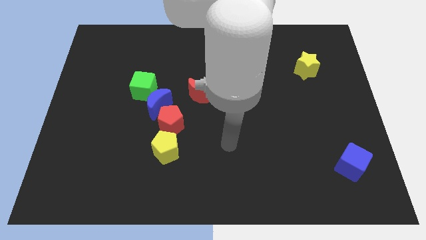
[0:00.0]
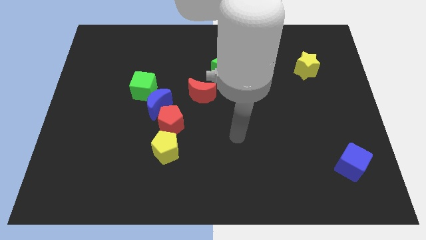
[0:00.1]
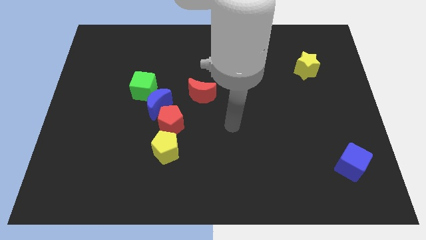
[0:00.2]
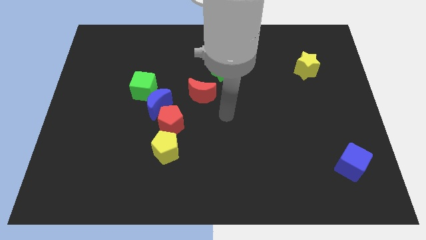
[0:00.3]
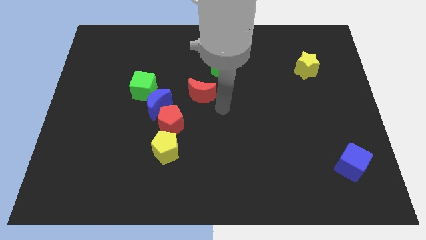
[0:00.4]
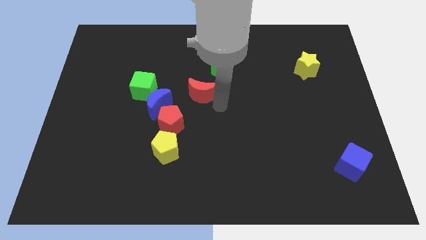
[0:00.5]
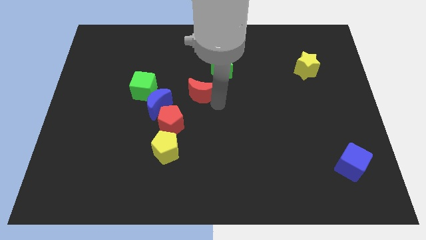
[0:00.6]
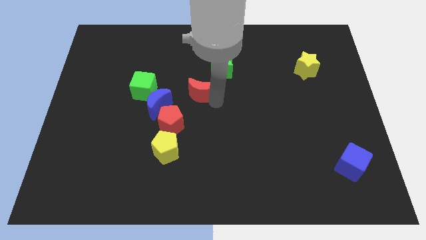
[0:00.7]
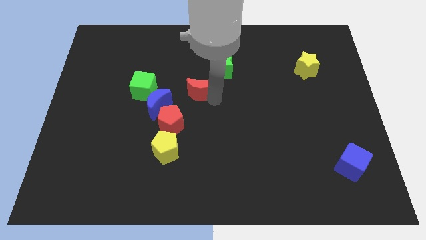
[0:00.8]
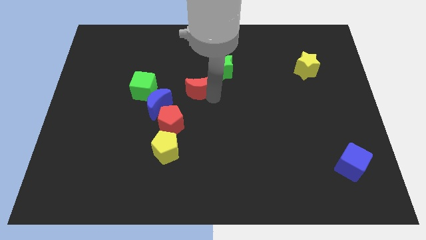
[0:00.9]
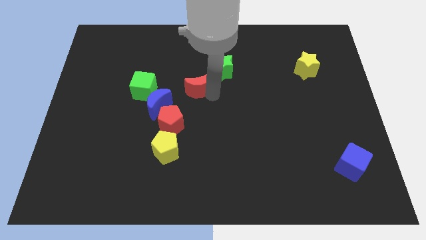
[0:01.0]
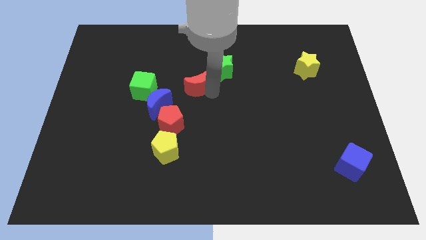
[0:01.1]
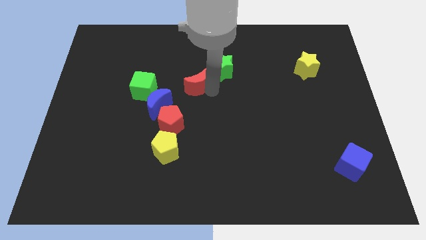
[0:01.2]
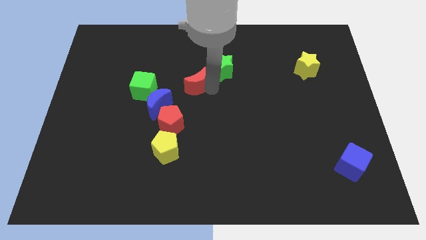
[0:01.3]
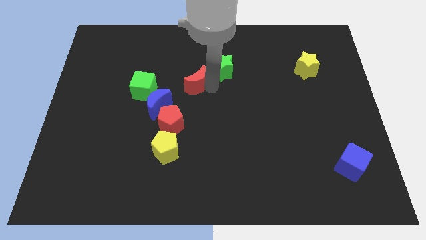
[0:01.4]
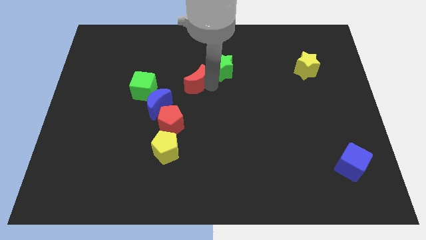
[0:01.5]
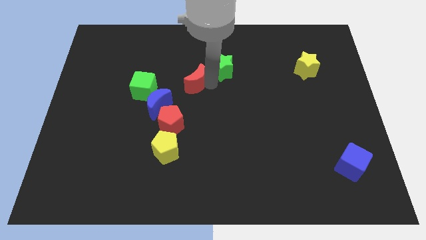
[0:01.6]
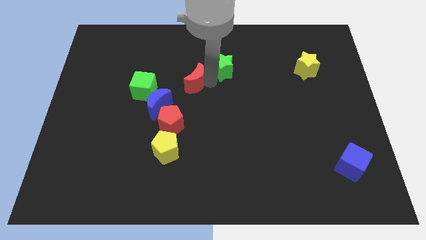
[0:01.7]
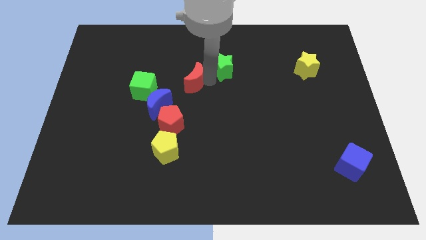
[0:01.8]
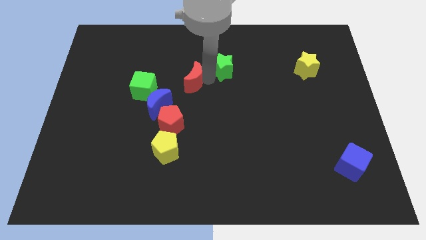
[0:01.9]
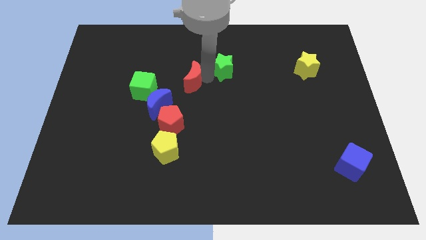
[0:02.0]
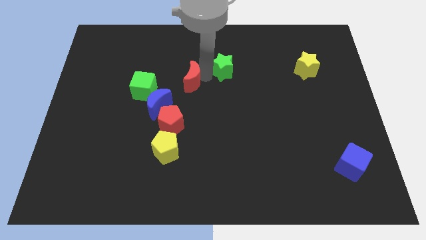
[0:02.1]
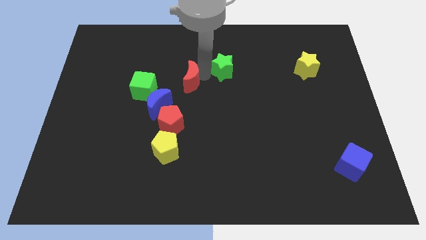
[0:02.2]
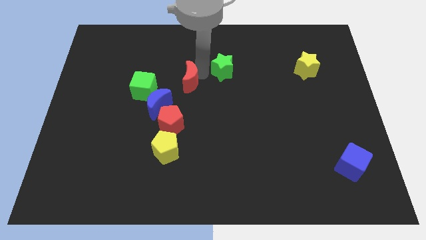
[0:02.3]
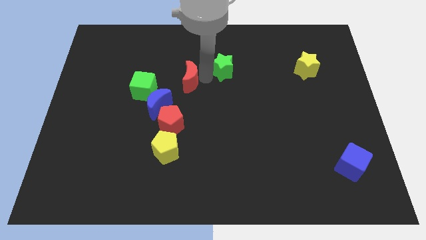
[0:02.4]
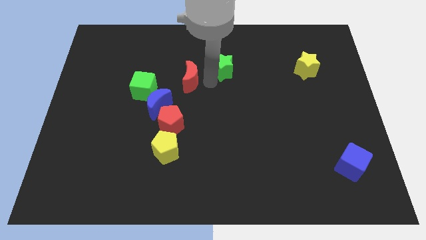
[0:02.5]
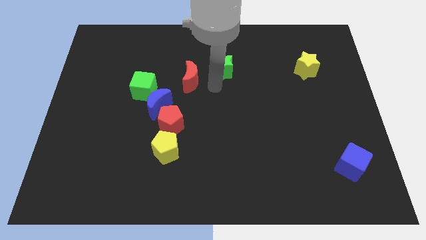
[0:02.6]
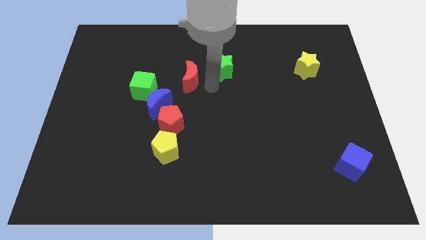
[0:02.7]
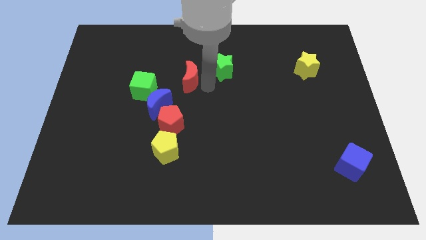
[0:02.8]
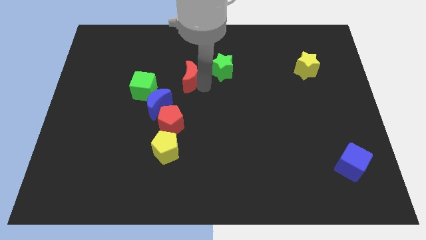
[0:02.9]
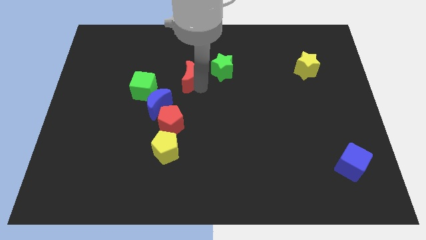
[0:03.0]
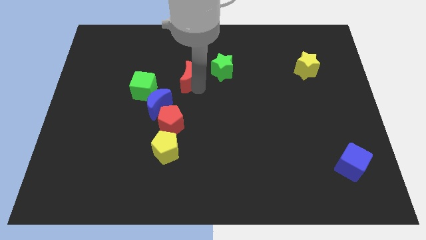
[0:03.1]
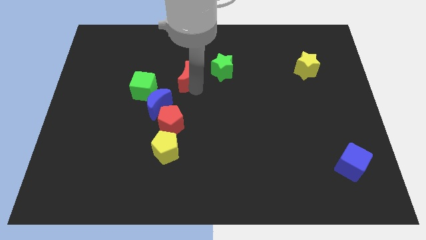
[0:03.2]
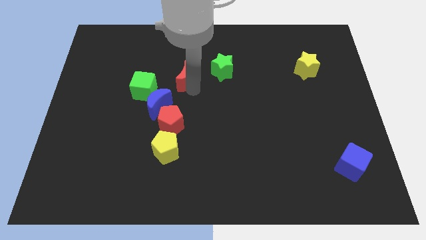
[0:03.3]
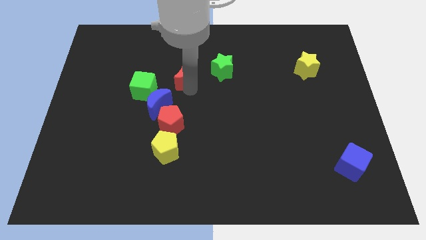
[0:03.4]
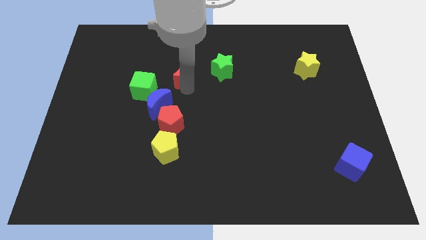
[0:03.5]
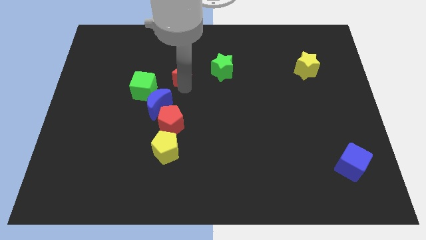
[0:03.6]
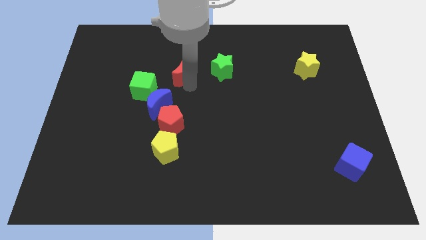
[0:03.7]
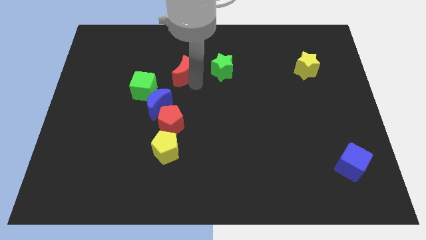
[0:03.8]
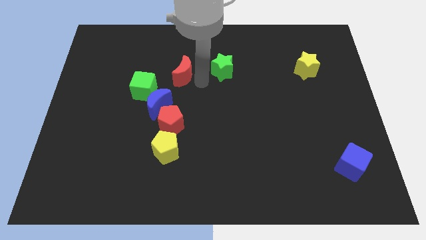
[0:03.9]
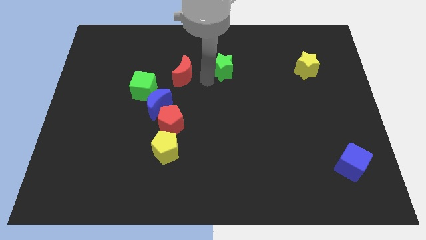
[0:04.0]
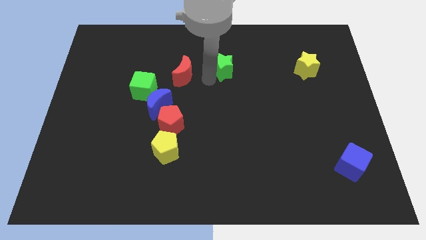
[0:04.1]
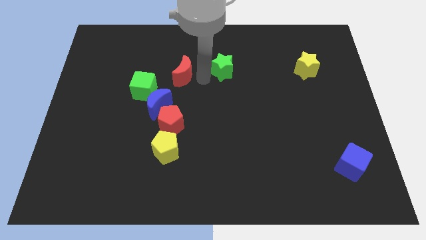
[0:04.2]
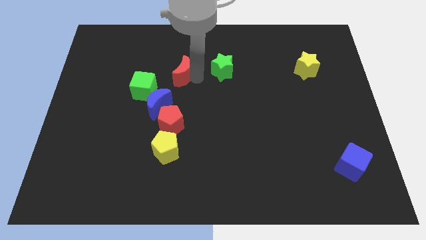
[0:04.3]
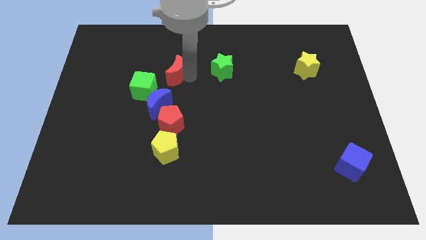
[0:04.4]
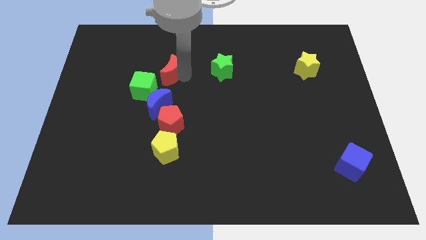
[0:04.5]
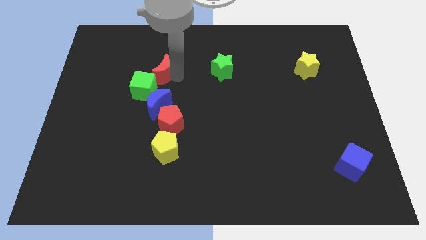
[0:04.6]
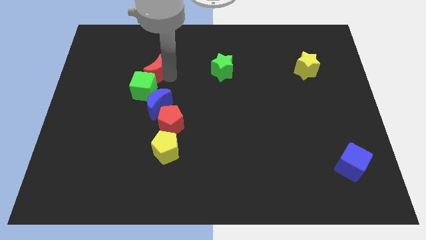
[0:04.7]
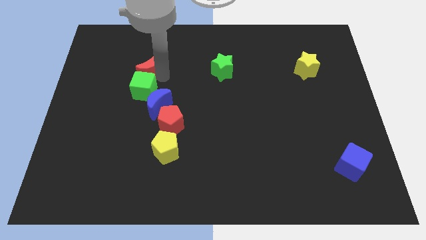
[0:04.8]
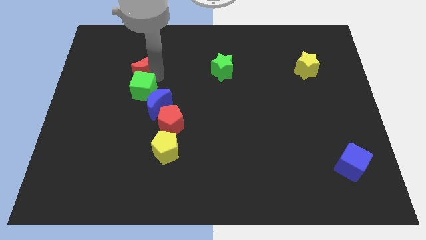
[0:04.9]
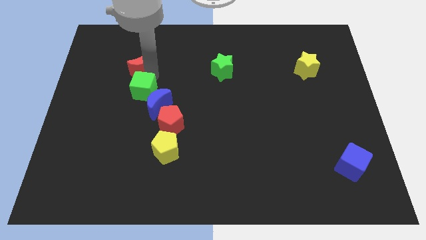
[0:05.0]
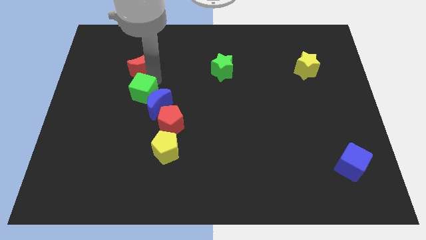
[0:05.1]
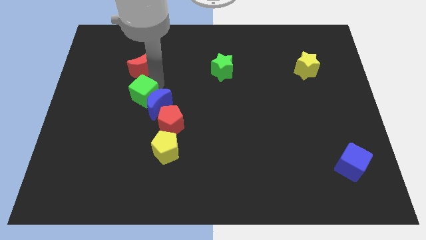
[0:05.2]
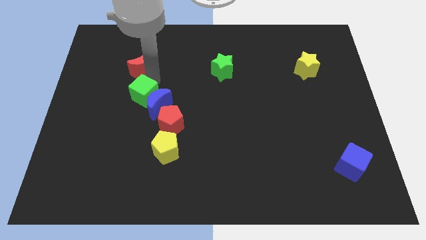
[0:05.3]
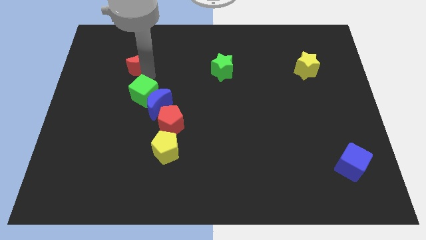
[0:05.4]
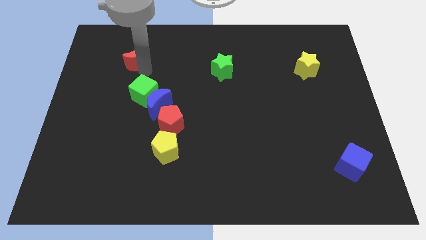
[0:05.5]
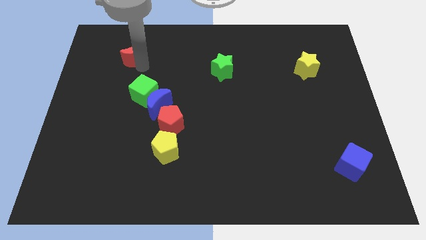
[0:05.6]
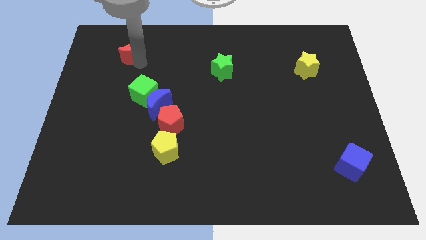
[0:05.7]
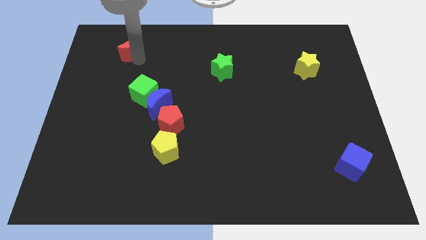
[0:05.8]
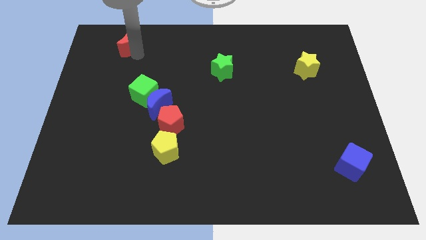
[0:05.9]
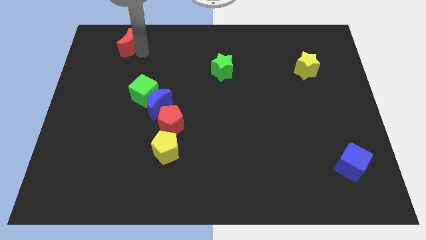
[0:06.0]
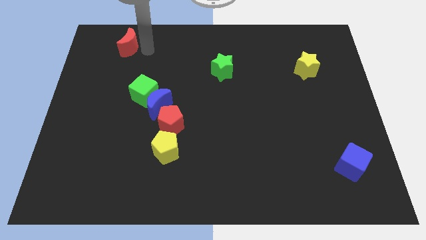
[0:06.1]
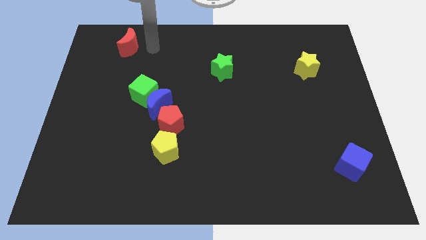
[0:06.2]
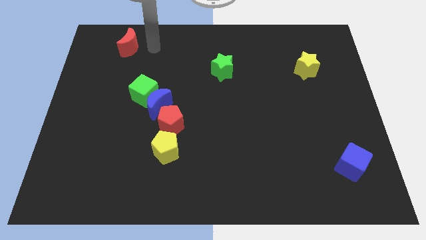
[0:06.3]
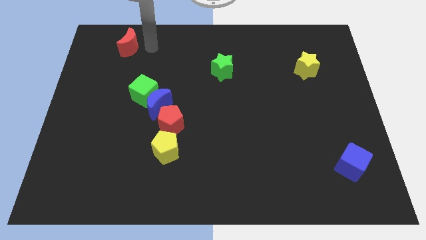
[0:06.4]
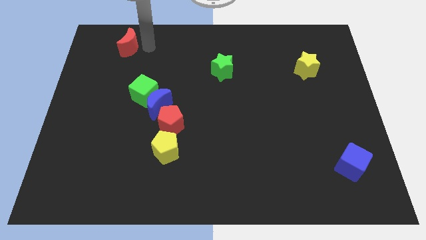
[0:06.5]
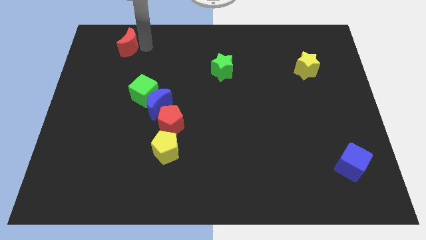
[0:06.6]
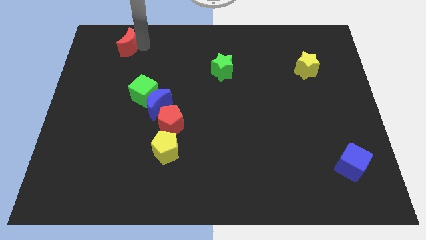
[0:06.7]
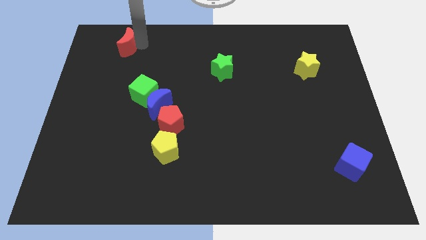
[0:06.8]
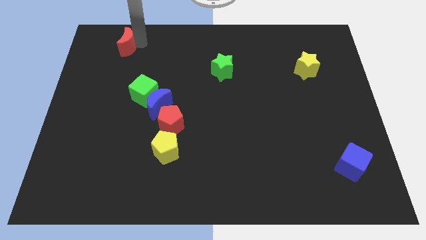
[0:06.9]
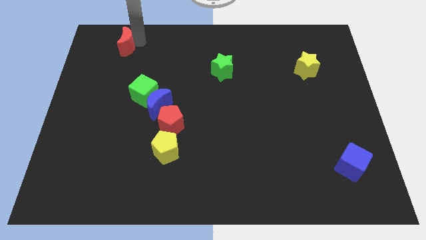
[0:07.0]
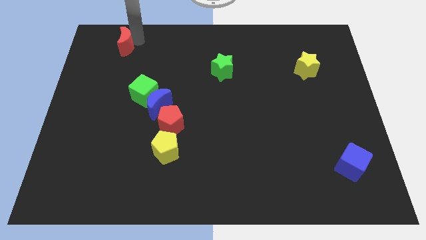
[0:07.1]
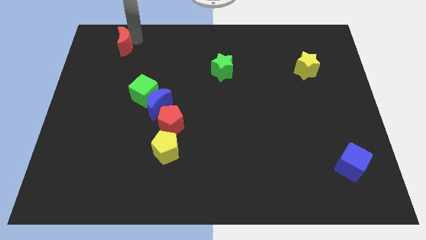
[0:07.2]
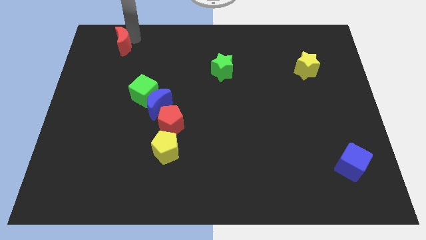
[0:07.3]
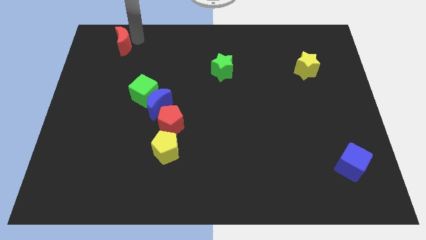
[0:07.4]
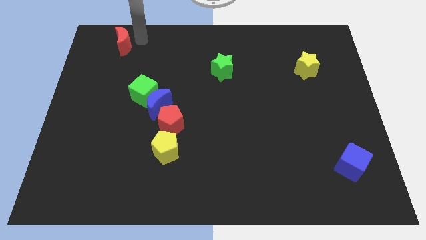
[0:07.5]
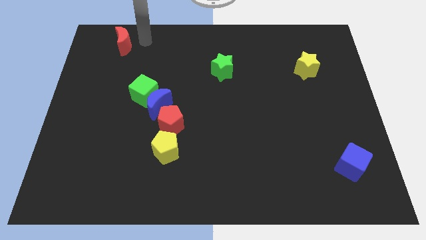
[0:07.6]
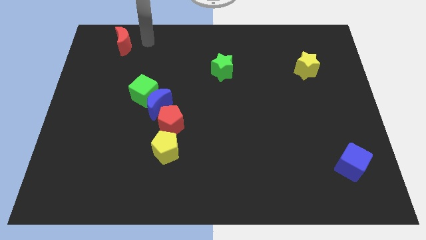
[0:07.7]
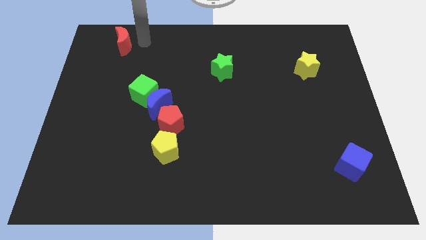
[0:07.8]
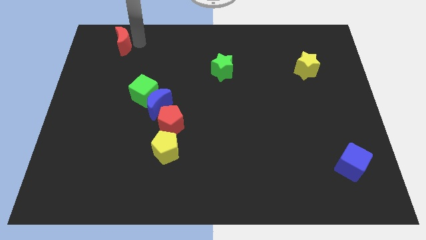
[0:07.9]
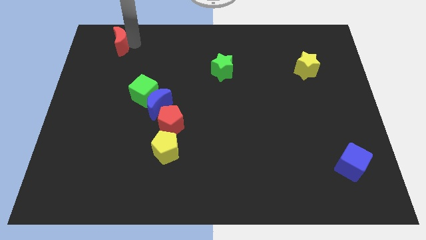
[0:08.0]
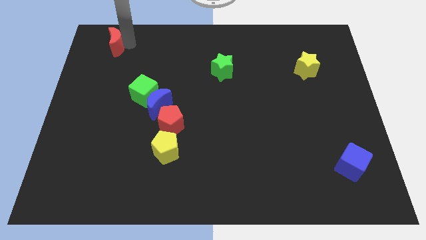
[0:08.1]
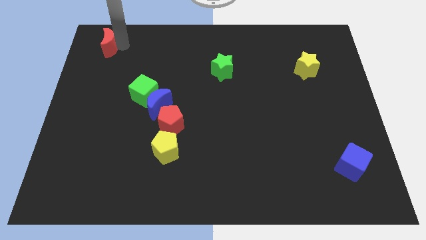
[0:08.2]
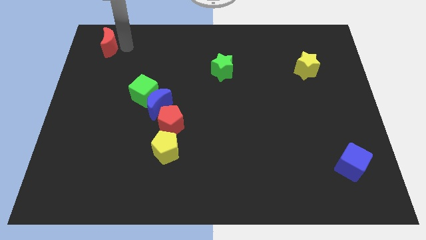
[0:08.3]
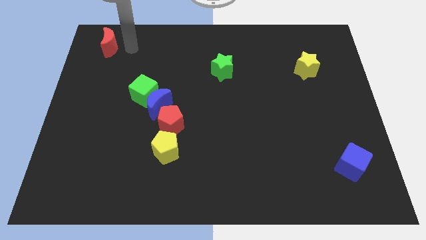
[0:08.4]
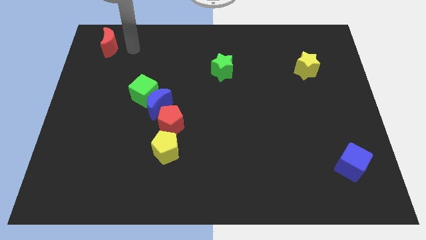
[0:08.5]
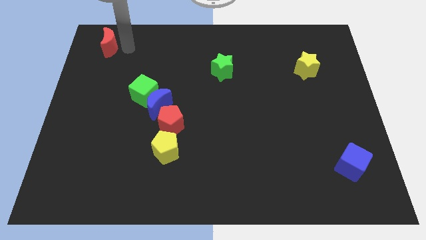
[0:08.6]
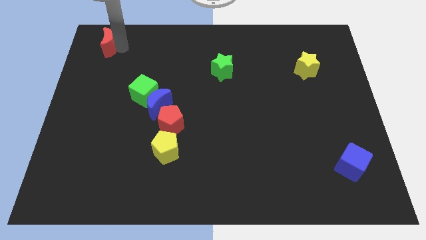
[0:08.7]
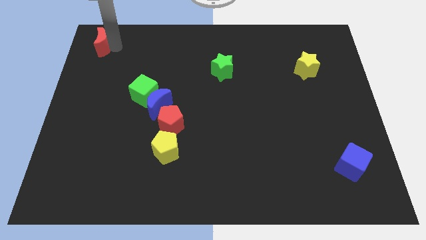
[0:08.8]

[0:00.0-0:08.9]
push the red moon to the top left
